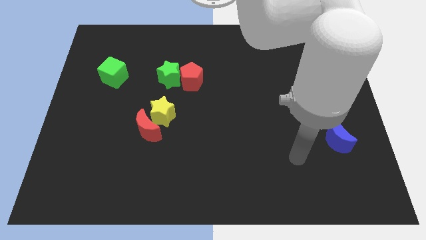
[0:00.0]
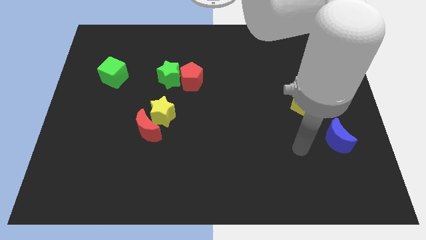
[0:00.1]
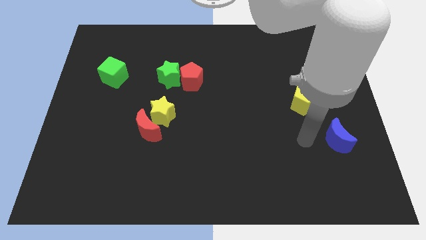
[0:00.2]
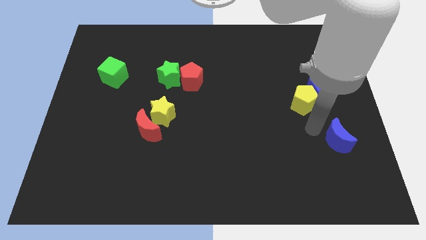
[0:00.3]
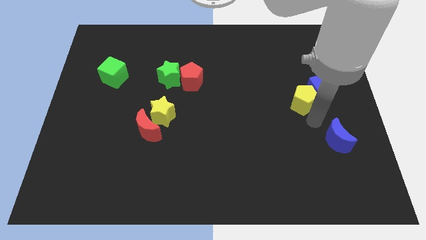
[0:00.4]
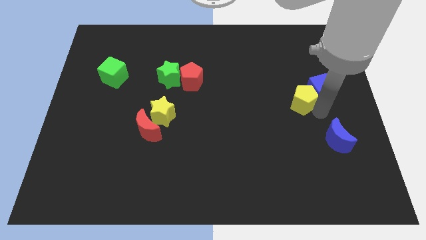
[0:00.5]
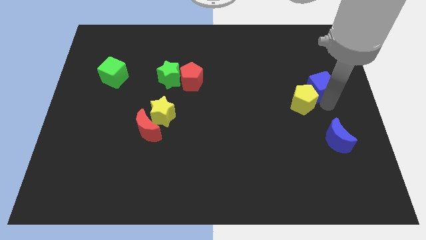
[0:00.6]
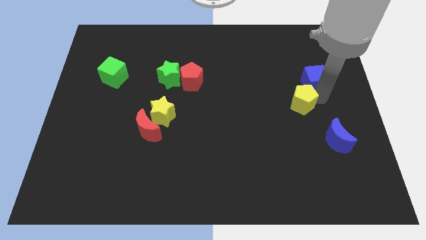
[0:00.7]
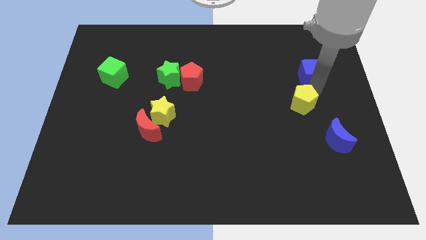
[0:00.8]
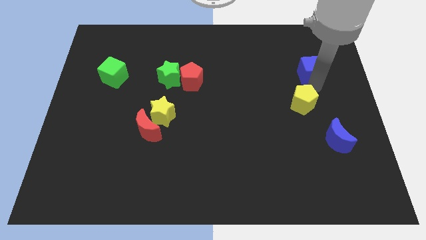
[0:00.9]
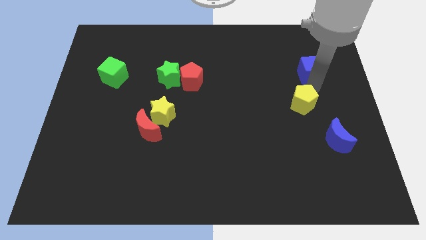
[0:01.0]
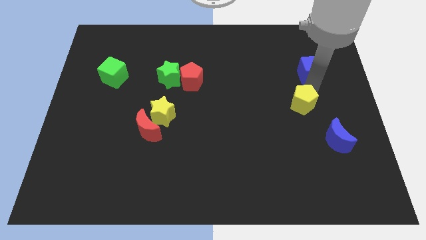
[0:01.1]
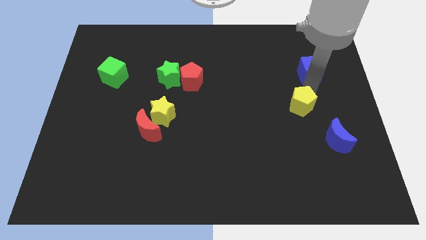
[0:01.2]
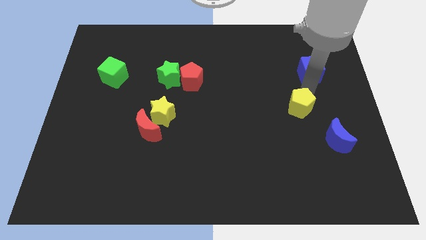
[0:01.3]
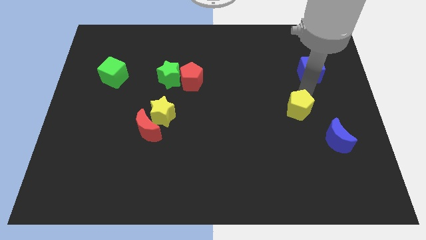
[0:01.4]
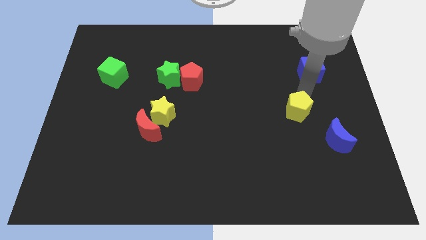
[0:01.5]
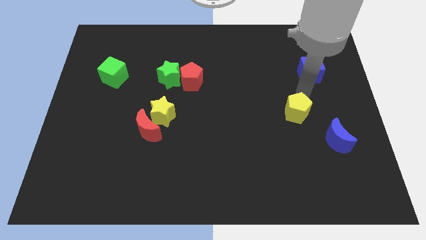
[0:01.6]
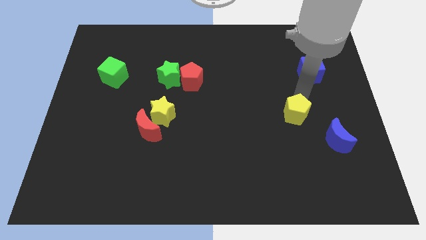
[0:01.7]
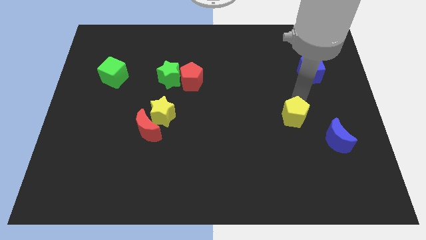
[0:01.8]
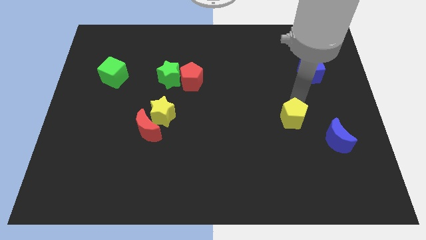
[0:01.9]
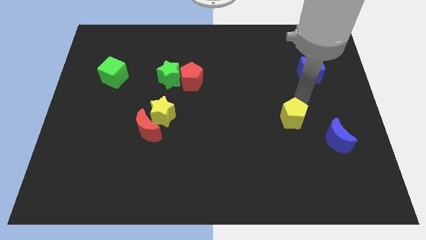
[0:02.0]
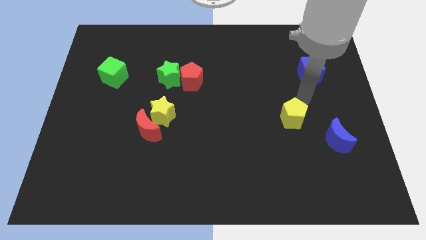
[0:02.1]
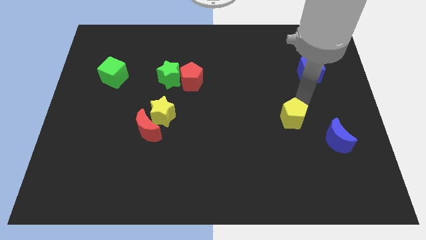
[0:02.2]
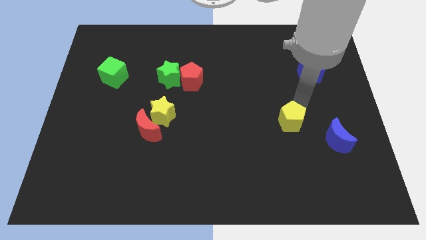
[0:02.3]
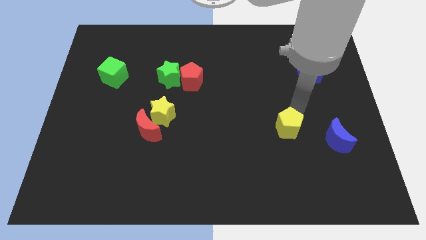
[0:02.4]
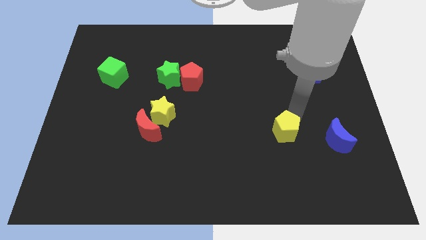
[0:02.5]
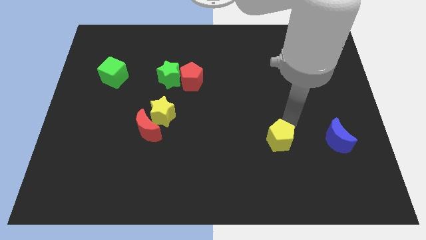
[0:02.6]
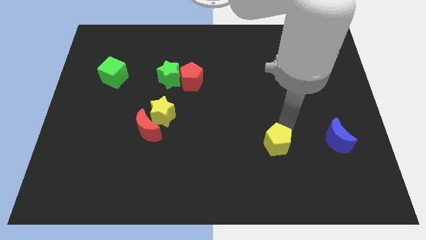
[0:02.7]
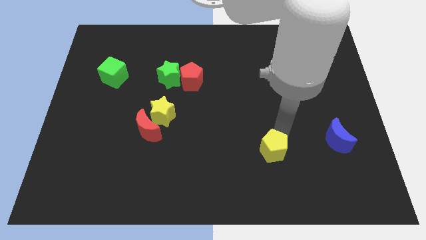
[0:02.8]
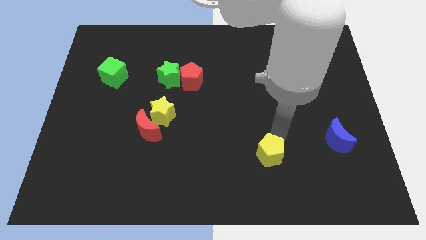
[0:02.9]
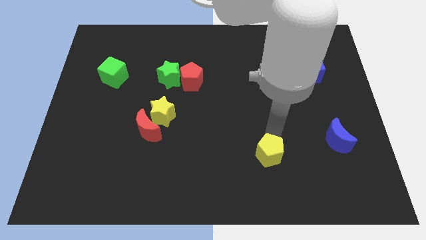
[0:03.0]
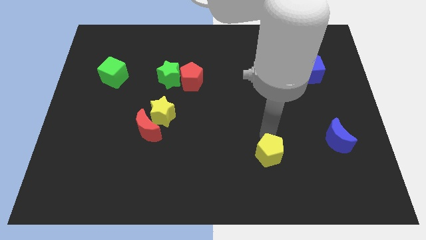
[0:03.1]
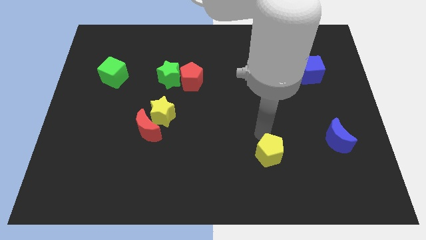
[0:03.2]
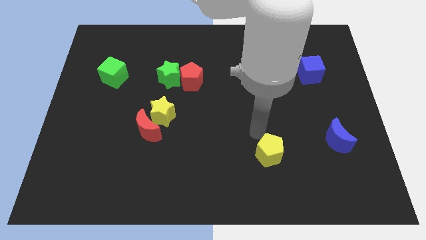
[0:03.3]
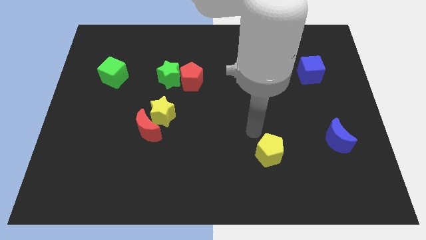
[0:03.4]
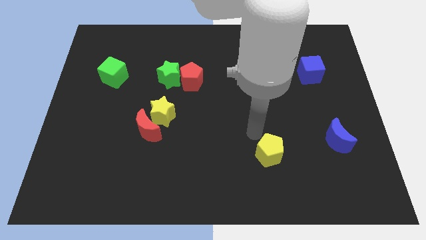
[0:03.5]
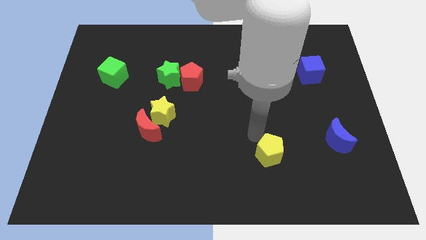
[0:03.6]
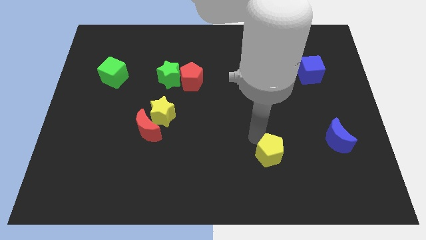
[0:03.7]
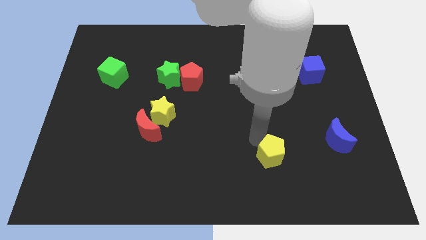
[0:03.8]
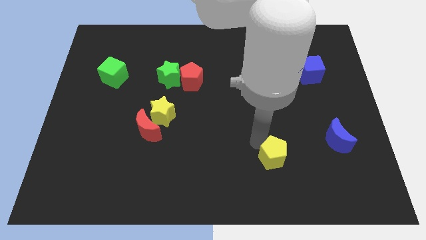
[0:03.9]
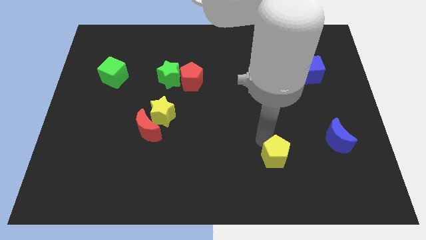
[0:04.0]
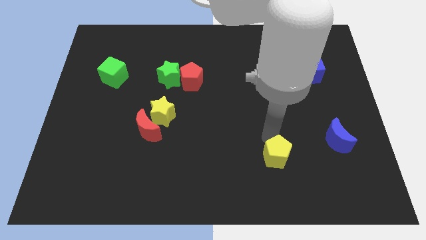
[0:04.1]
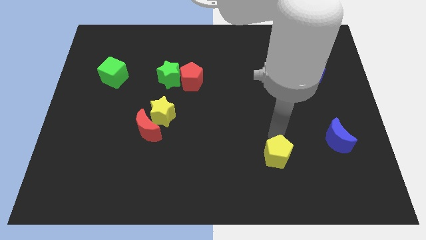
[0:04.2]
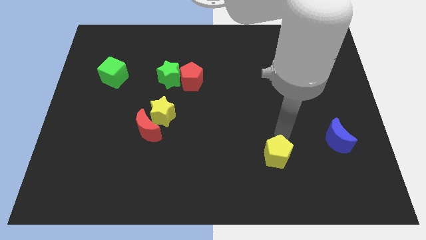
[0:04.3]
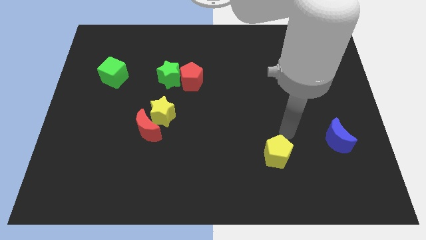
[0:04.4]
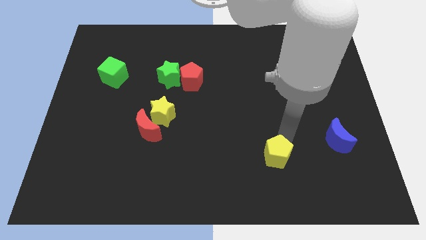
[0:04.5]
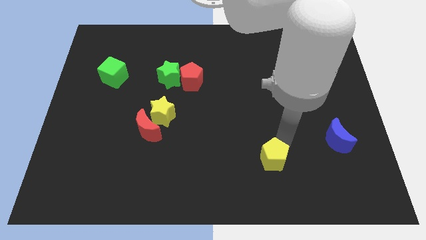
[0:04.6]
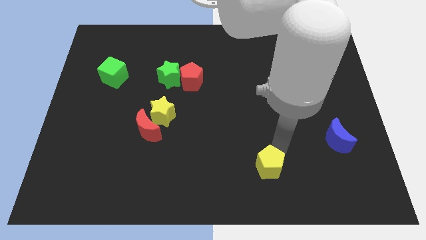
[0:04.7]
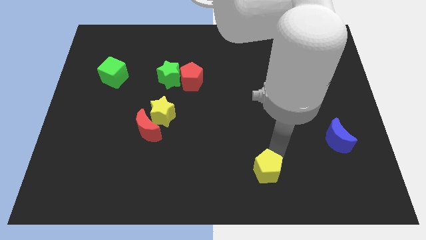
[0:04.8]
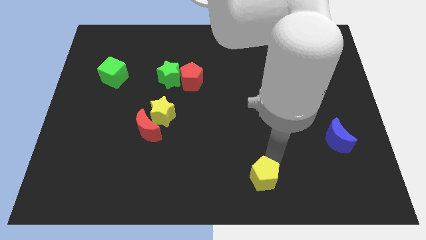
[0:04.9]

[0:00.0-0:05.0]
push the yellow pentagon to the bottom side

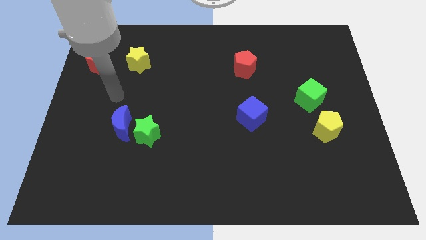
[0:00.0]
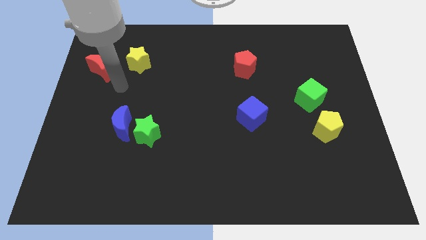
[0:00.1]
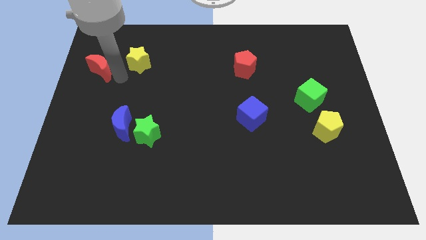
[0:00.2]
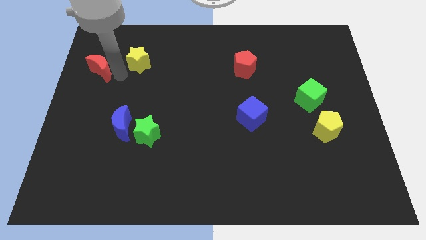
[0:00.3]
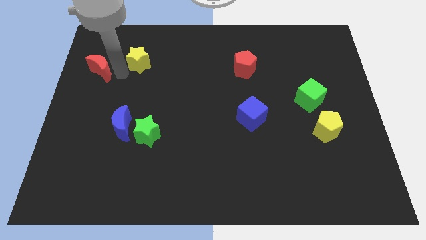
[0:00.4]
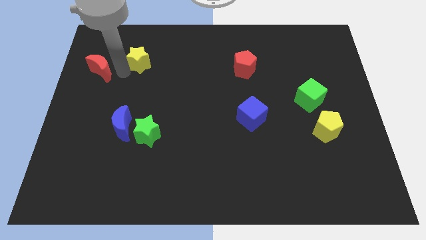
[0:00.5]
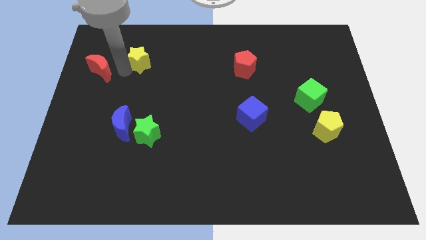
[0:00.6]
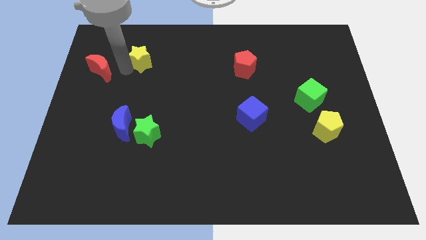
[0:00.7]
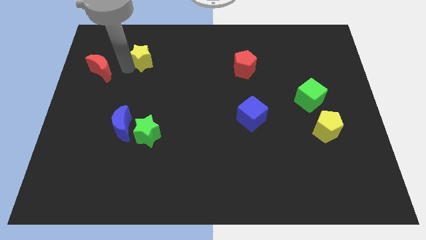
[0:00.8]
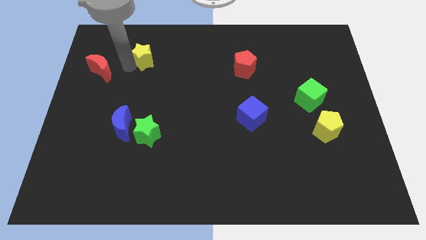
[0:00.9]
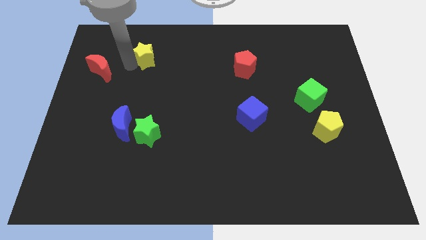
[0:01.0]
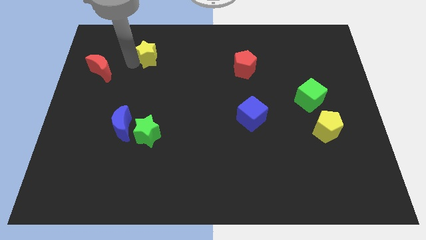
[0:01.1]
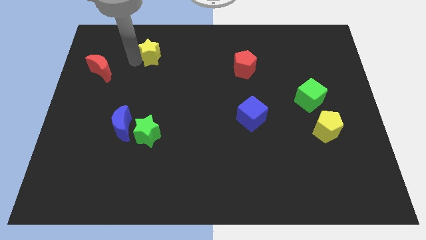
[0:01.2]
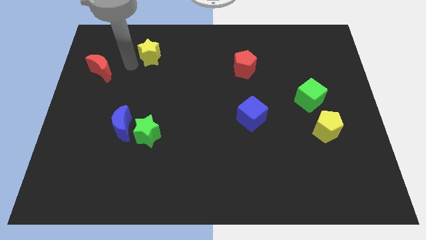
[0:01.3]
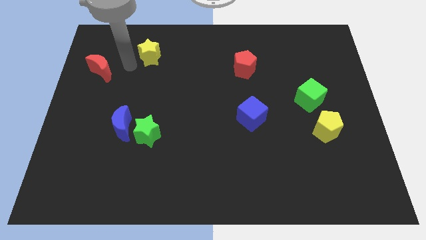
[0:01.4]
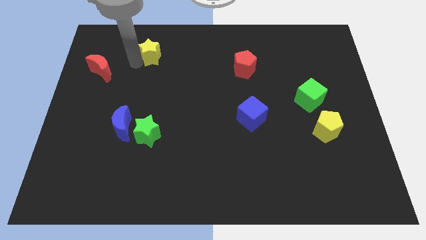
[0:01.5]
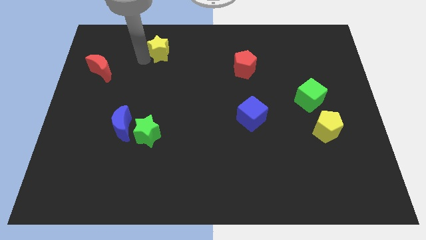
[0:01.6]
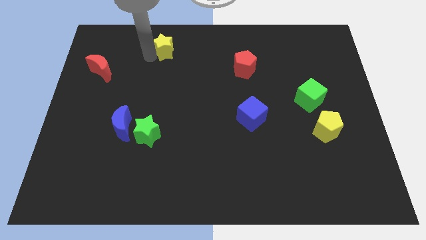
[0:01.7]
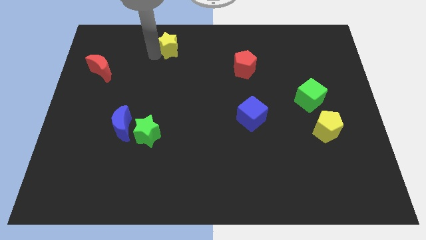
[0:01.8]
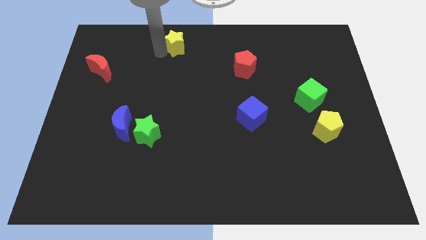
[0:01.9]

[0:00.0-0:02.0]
push the yellow star to the towards your base

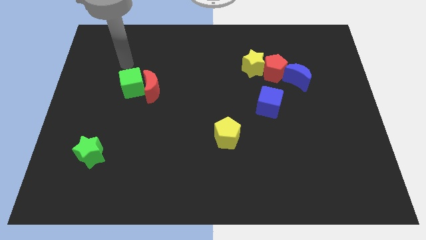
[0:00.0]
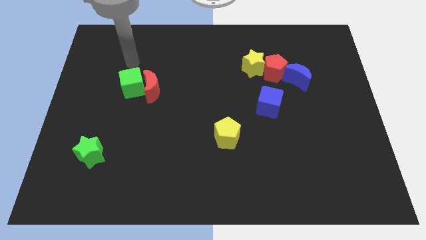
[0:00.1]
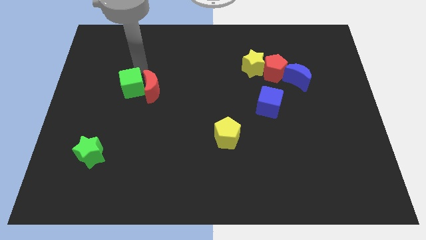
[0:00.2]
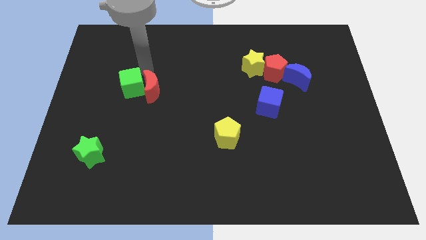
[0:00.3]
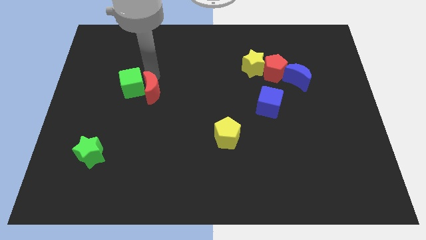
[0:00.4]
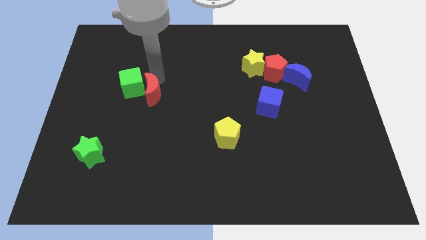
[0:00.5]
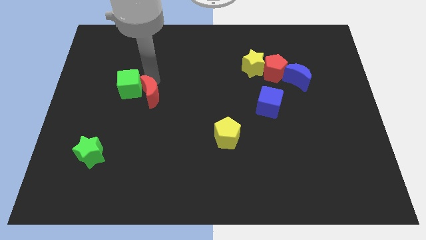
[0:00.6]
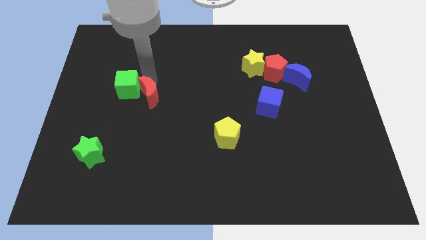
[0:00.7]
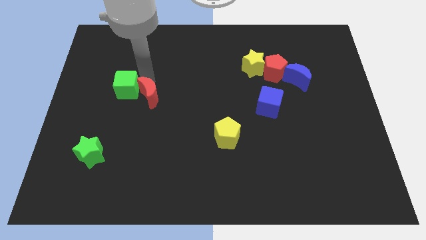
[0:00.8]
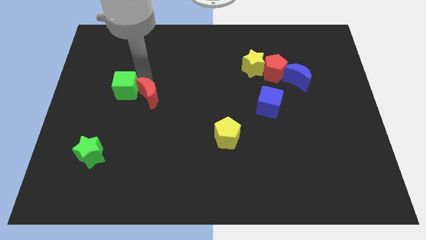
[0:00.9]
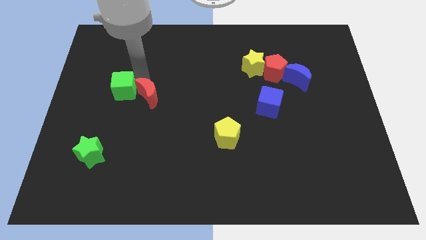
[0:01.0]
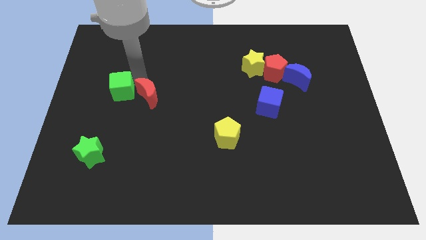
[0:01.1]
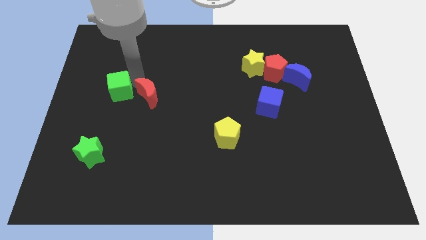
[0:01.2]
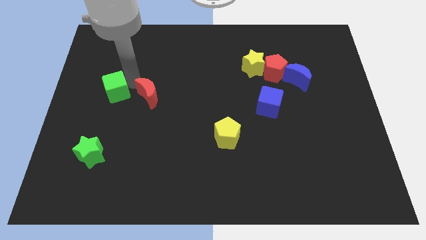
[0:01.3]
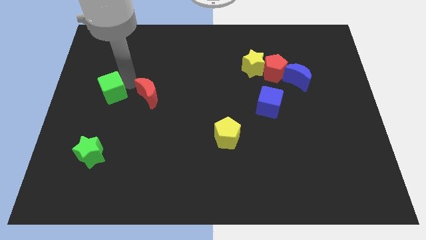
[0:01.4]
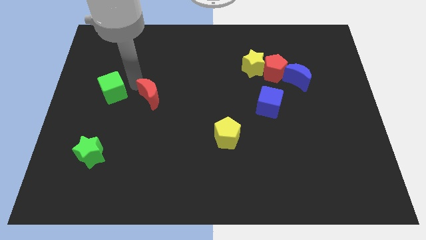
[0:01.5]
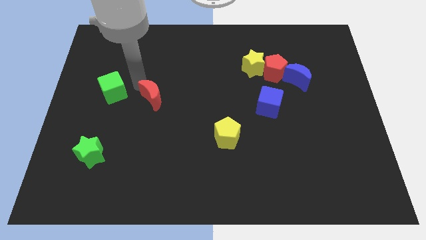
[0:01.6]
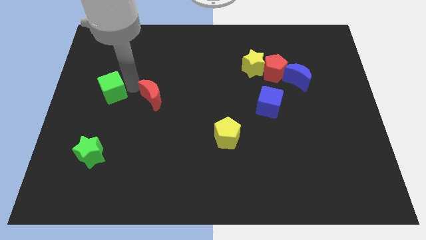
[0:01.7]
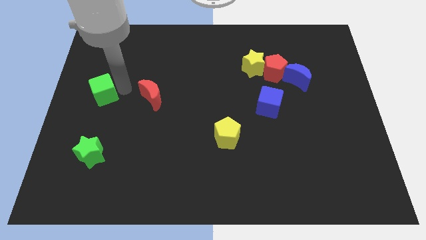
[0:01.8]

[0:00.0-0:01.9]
push the green cube to the center left
